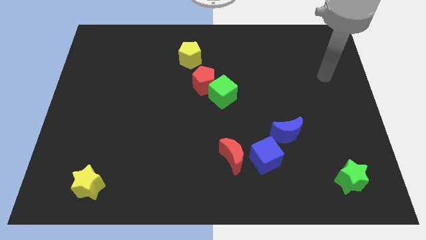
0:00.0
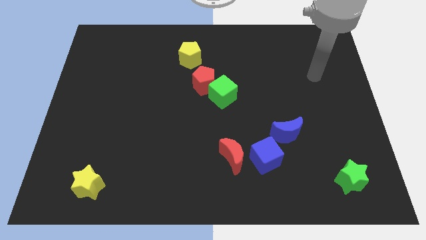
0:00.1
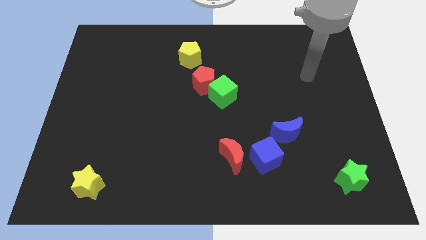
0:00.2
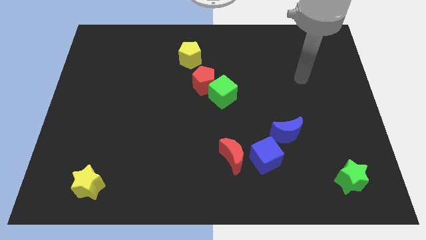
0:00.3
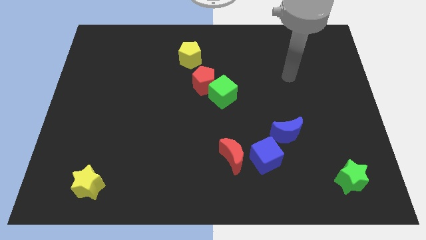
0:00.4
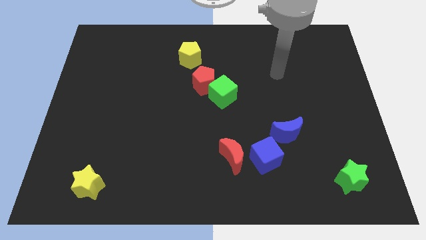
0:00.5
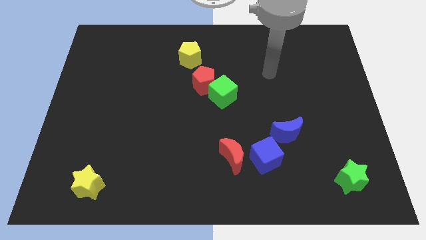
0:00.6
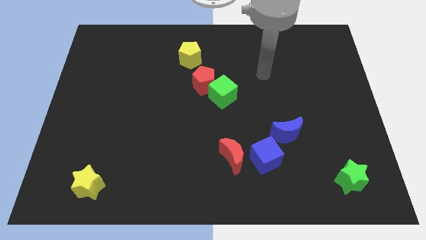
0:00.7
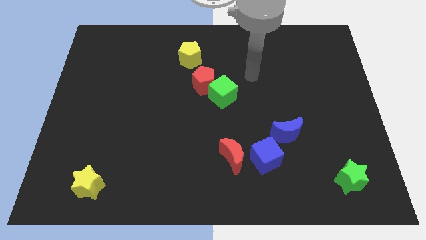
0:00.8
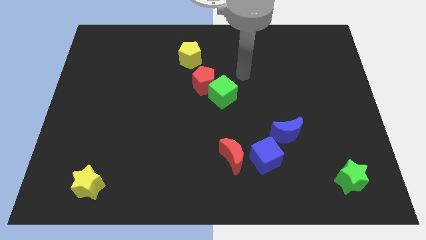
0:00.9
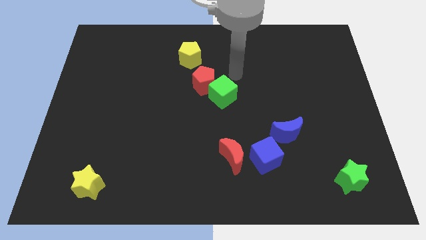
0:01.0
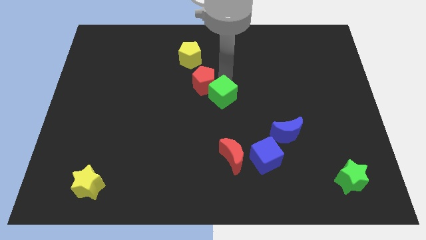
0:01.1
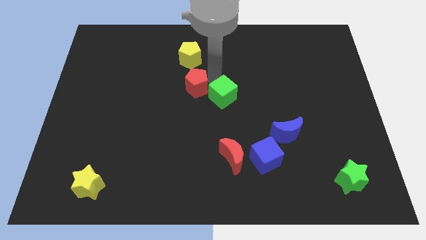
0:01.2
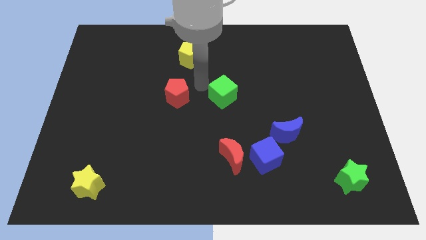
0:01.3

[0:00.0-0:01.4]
separate the green cube from the red pentagon

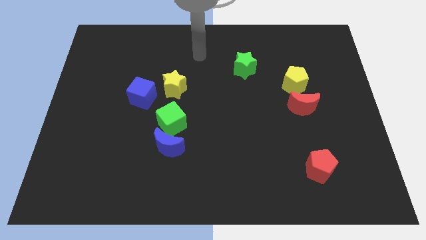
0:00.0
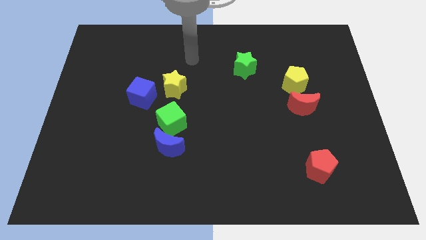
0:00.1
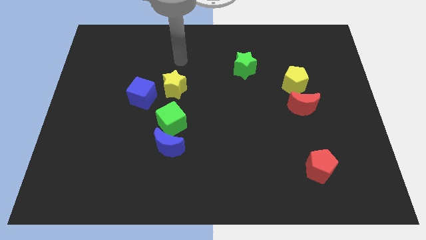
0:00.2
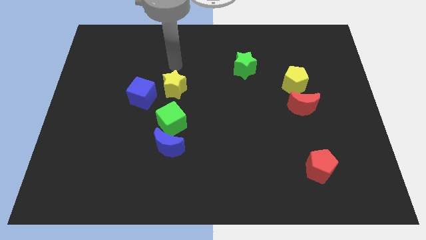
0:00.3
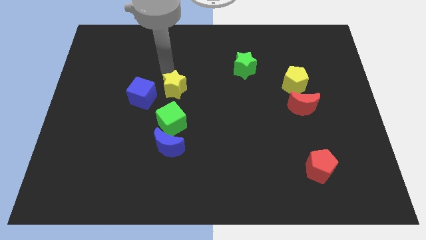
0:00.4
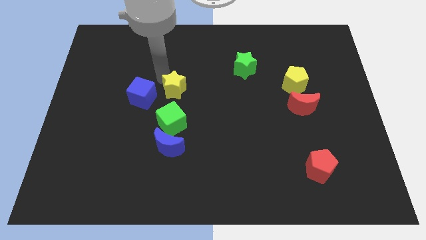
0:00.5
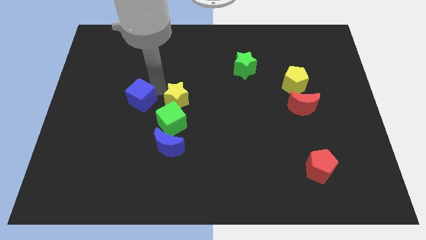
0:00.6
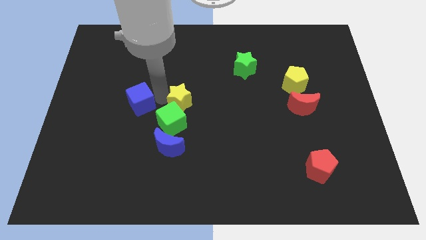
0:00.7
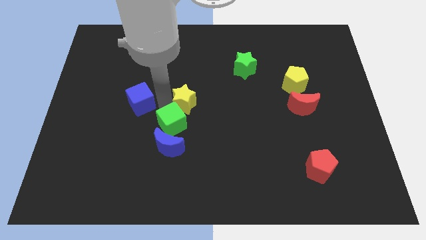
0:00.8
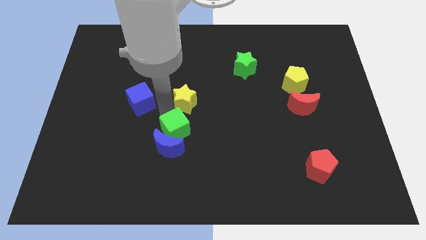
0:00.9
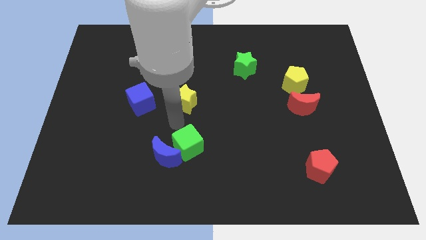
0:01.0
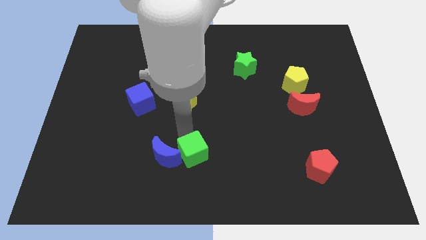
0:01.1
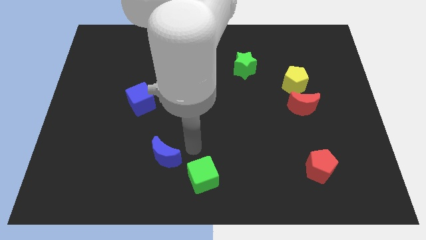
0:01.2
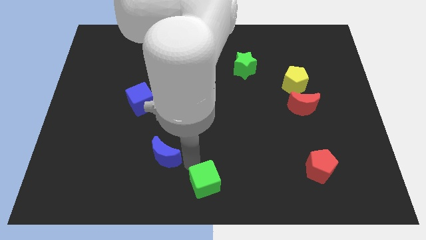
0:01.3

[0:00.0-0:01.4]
pull the blue moon apart from the green cube

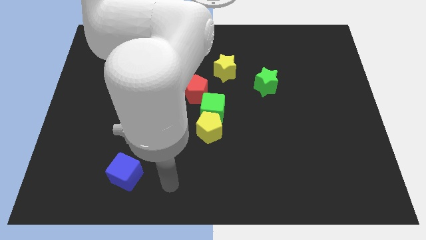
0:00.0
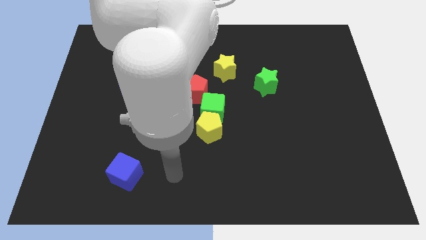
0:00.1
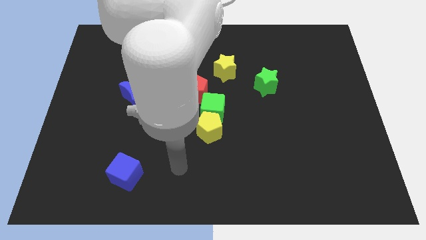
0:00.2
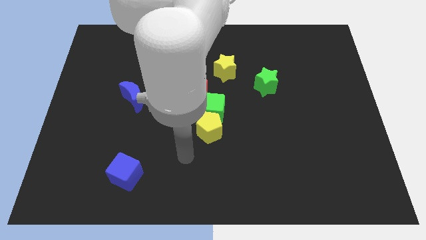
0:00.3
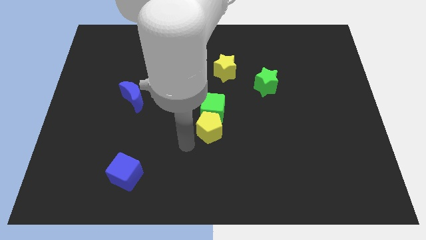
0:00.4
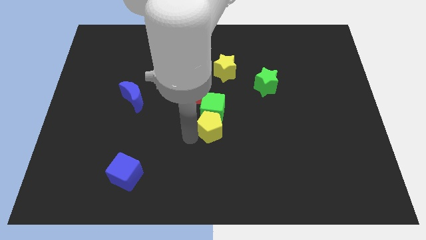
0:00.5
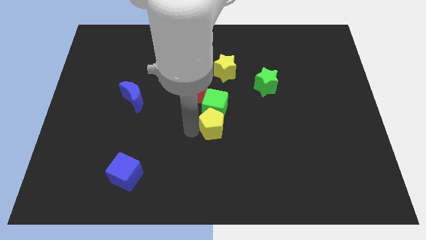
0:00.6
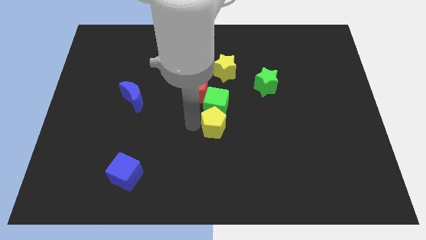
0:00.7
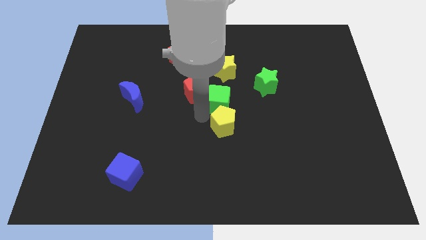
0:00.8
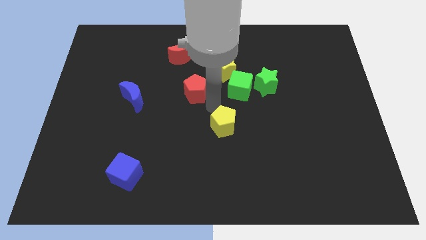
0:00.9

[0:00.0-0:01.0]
move the yellow pentagon away from the green cube

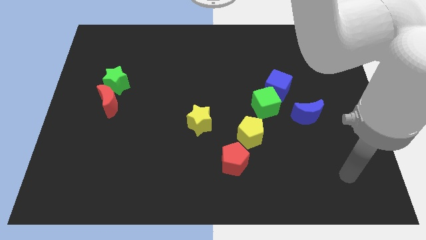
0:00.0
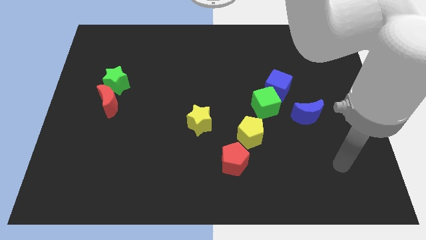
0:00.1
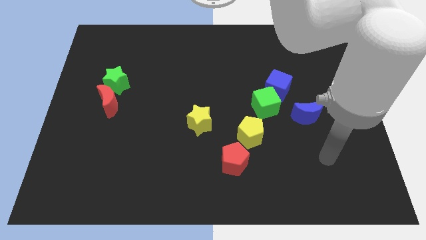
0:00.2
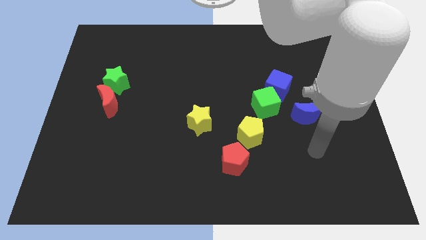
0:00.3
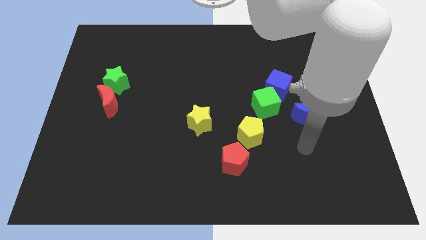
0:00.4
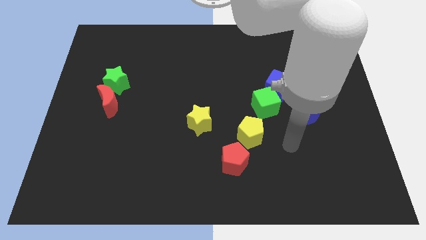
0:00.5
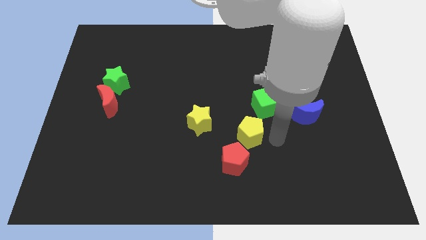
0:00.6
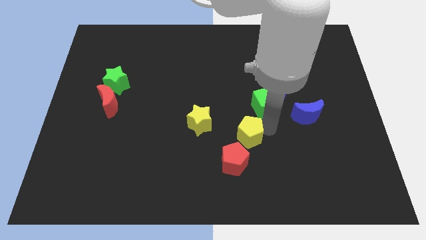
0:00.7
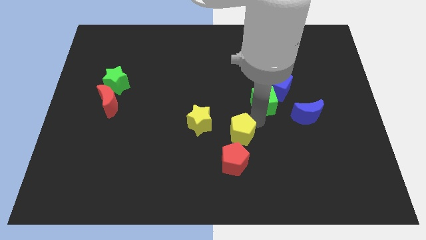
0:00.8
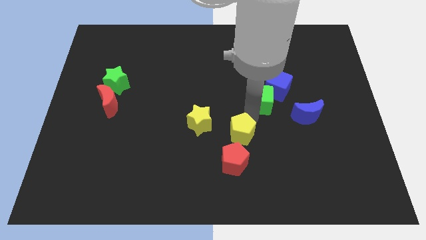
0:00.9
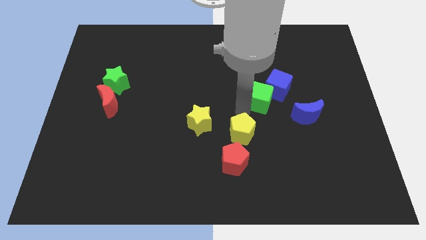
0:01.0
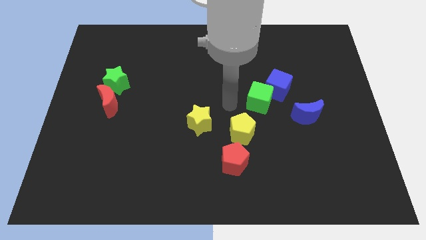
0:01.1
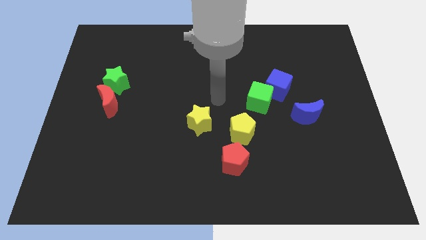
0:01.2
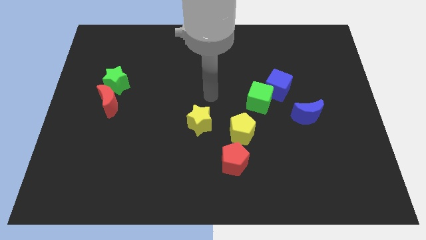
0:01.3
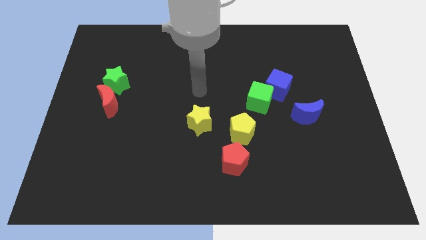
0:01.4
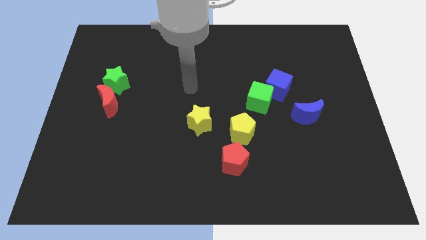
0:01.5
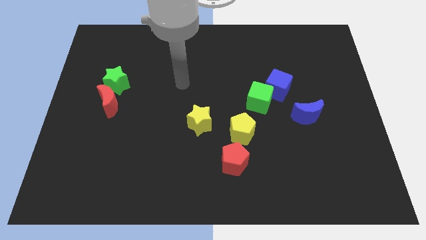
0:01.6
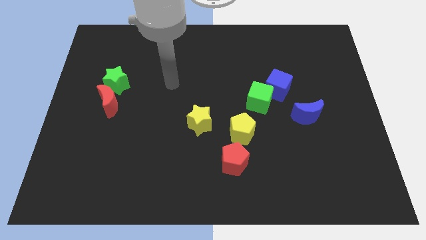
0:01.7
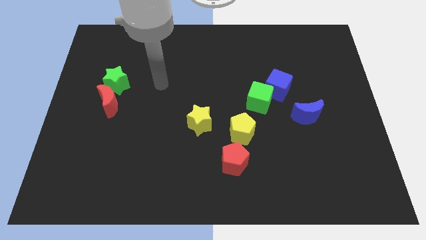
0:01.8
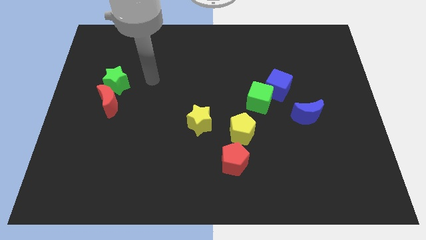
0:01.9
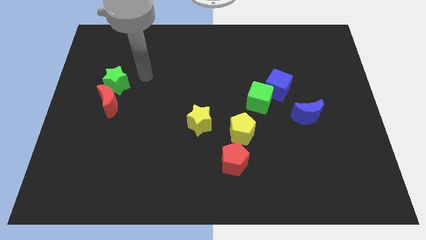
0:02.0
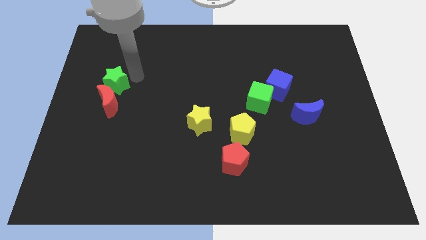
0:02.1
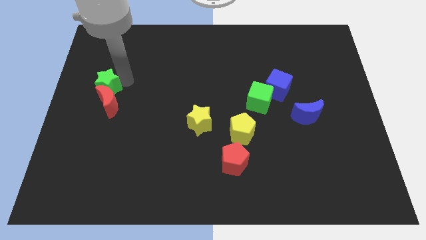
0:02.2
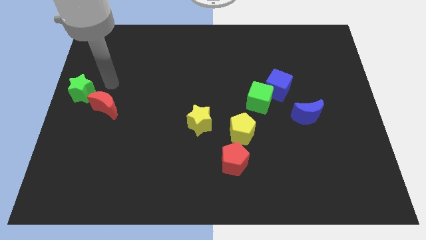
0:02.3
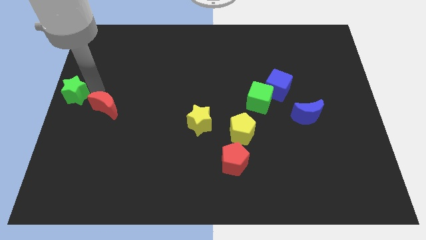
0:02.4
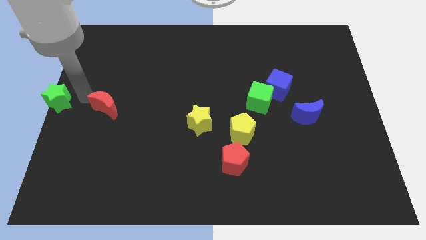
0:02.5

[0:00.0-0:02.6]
move the red moon away from the green star

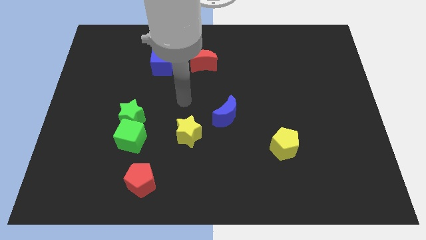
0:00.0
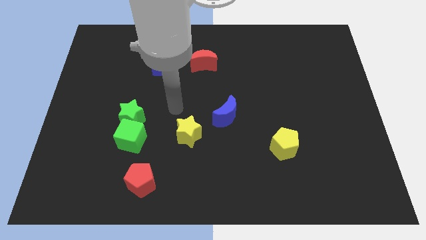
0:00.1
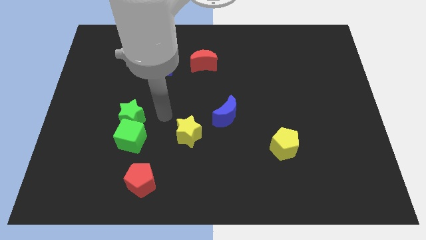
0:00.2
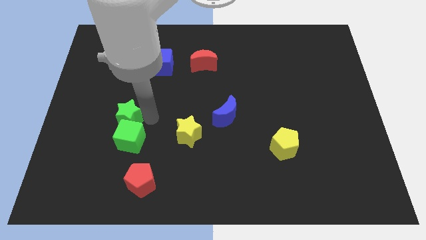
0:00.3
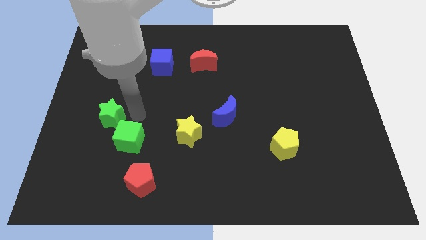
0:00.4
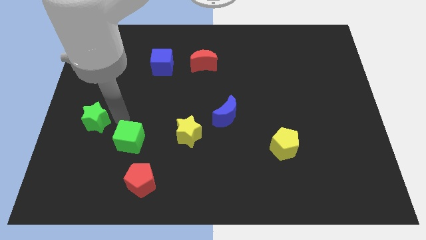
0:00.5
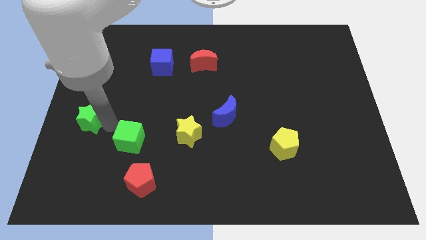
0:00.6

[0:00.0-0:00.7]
move the green cube away from the green star

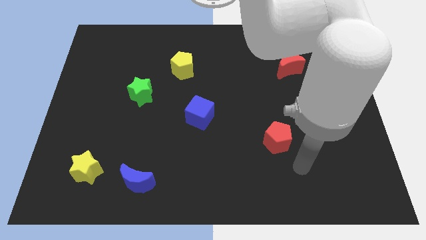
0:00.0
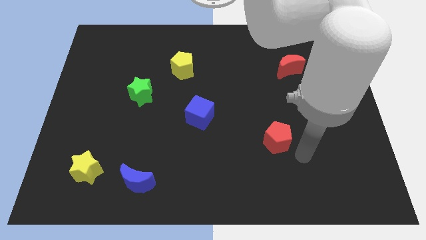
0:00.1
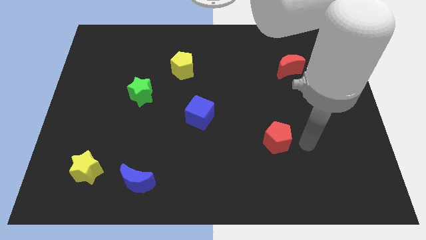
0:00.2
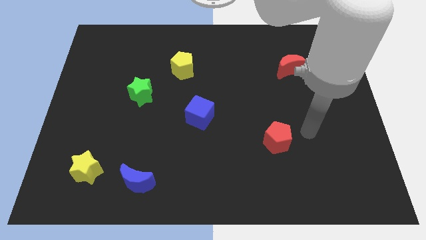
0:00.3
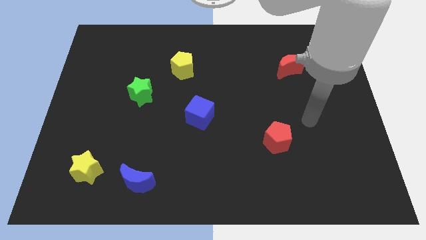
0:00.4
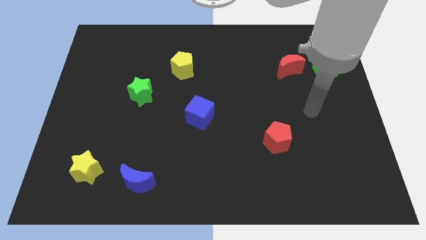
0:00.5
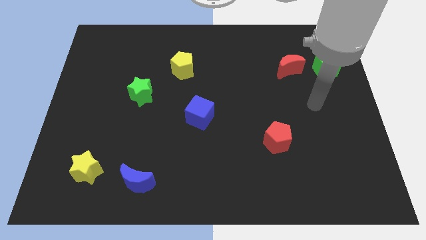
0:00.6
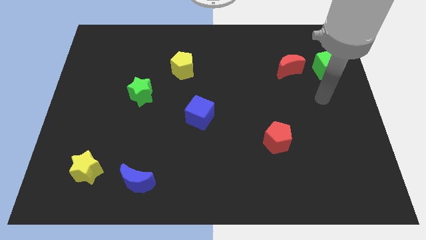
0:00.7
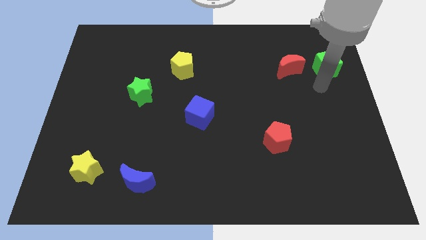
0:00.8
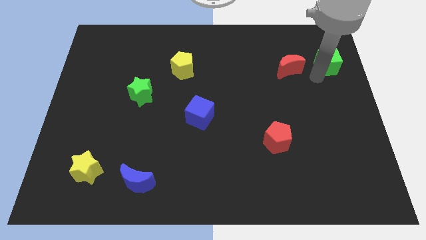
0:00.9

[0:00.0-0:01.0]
pull the red moon apart from the green cube

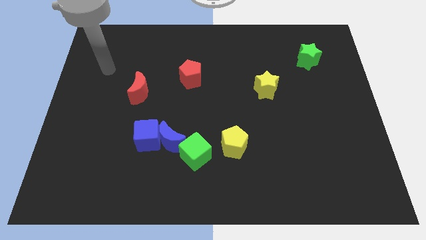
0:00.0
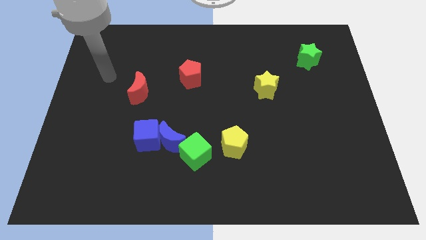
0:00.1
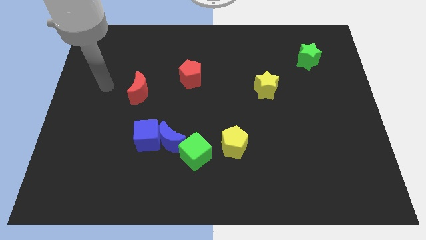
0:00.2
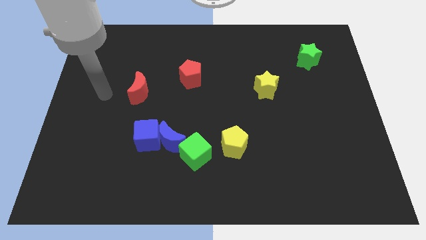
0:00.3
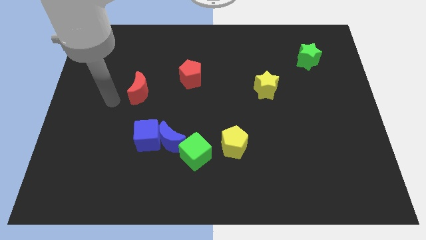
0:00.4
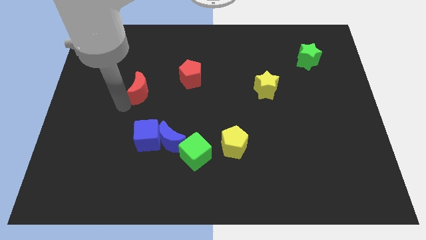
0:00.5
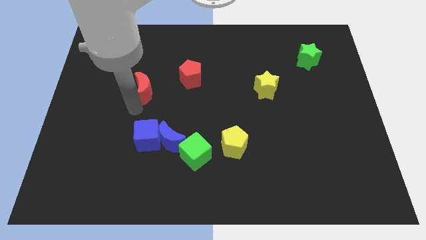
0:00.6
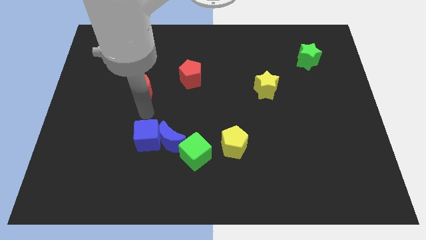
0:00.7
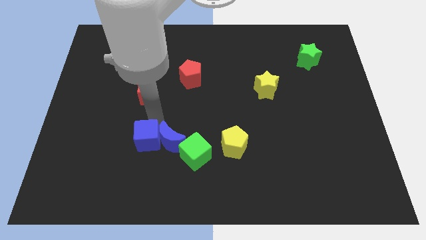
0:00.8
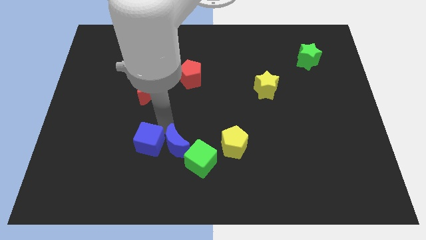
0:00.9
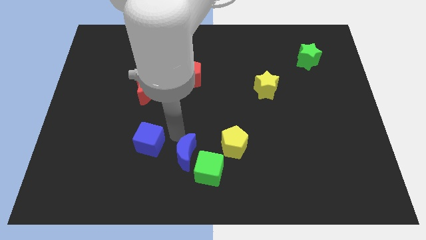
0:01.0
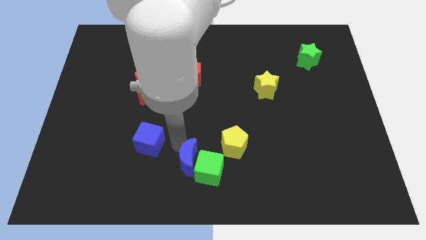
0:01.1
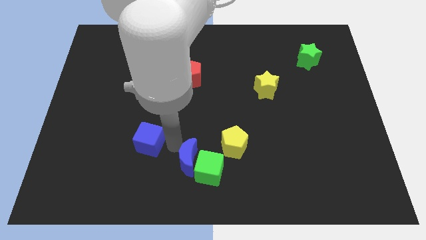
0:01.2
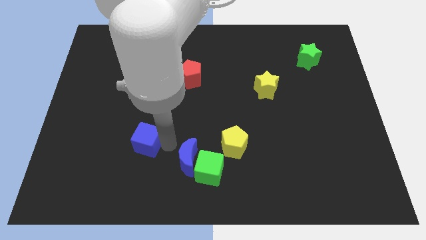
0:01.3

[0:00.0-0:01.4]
pull the blue cube apart from the blue moon
